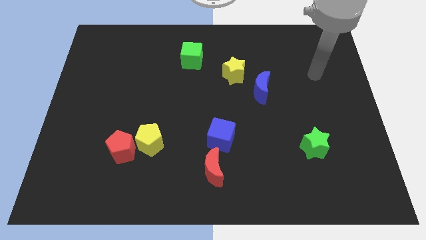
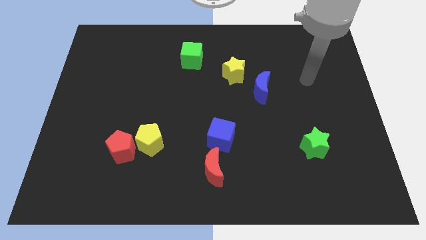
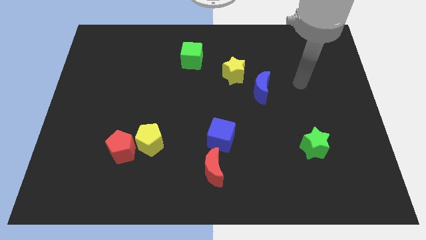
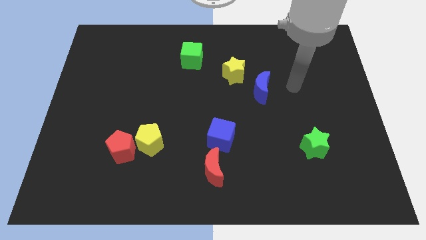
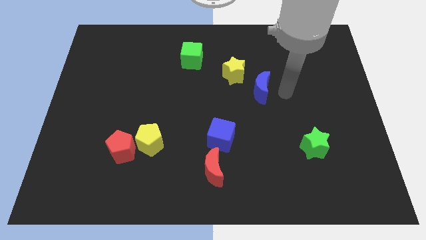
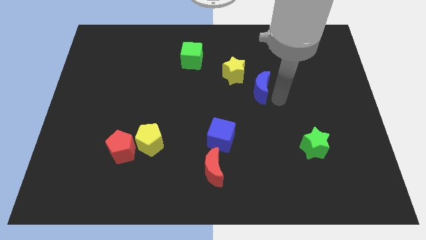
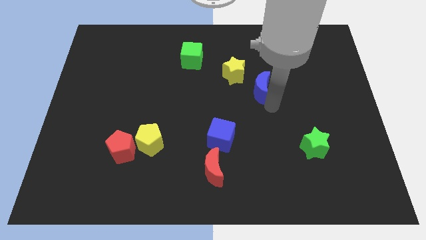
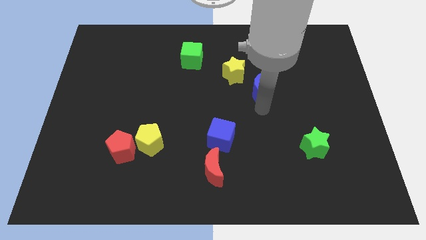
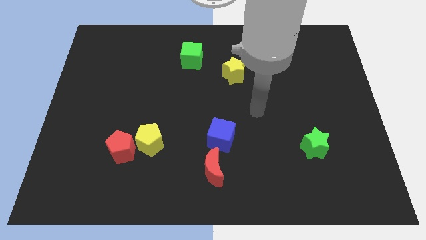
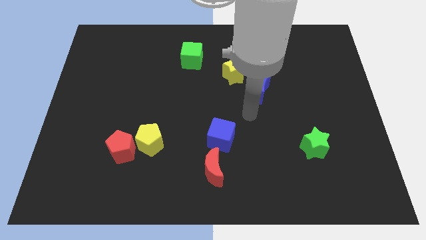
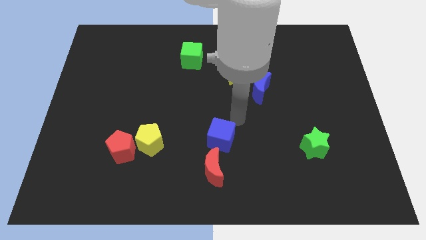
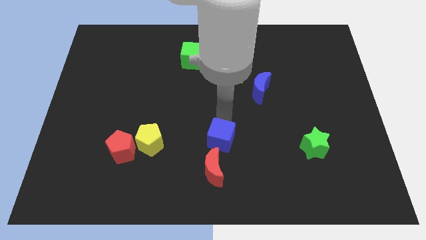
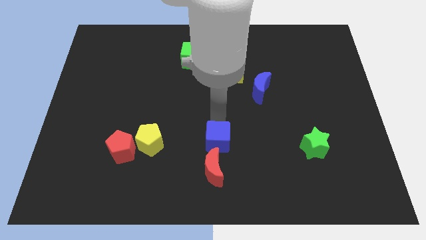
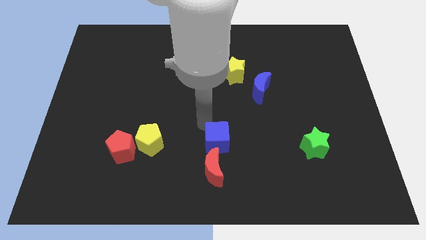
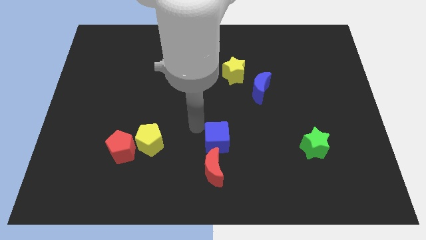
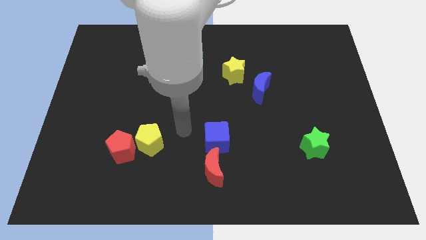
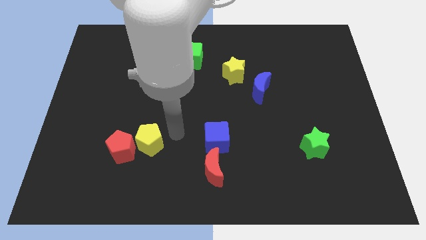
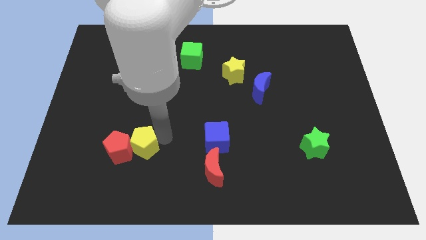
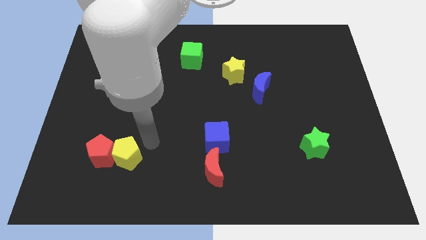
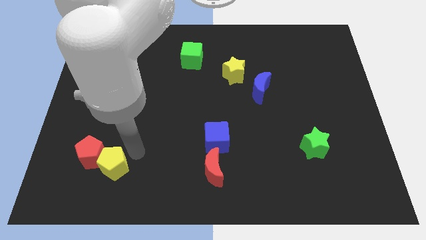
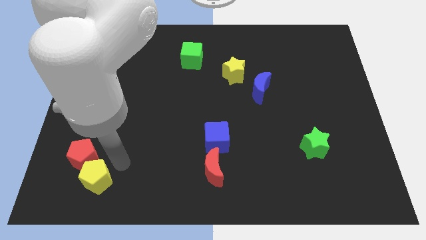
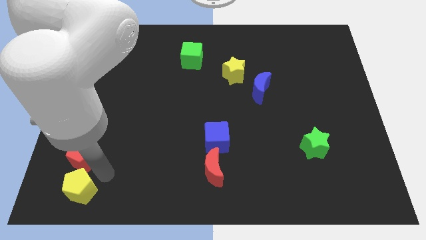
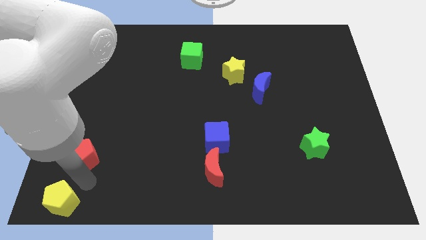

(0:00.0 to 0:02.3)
pull the red pentagon apart from the yellow pentagon

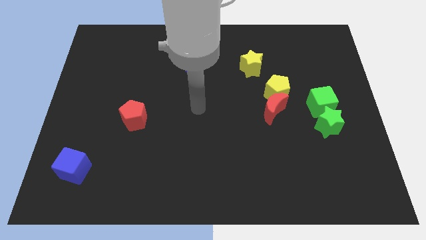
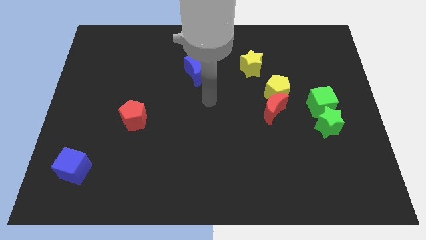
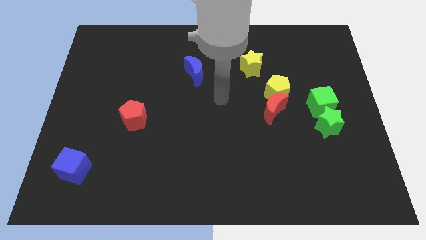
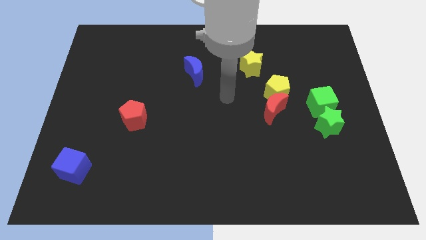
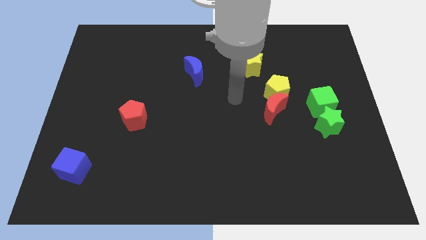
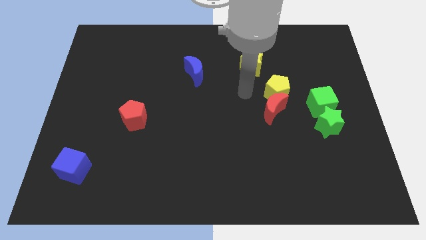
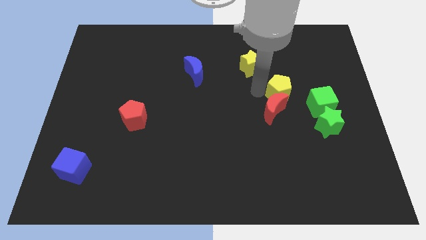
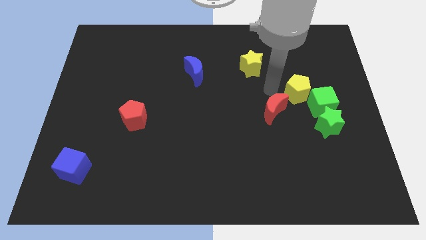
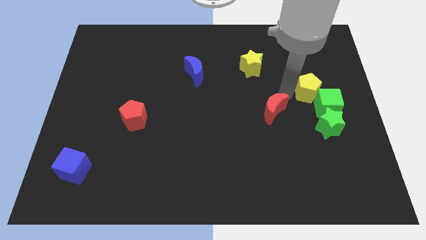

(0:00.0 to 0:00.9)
separate the red moon from the yellow pentagon

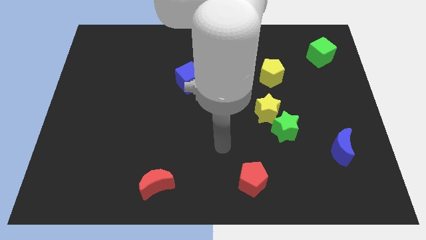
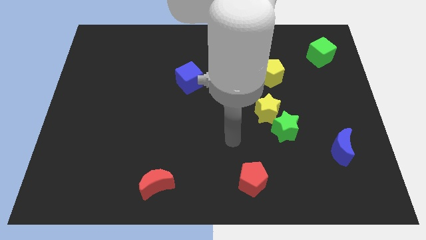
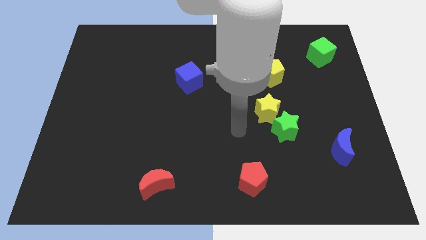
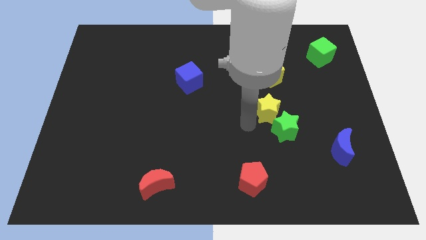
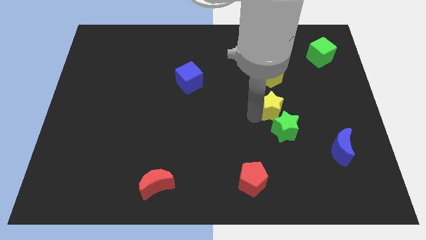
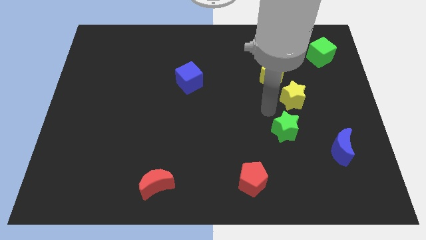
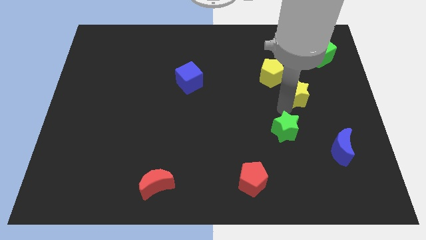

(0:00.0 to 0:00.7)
move the green star away from the yellow star

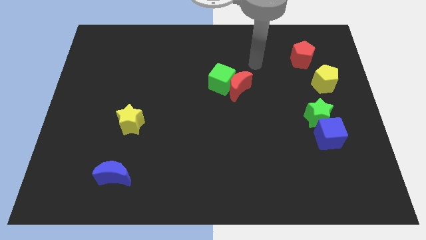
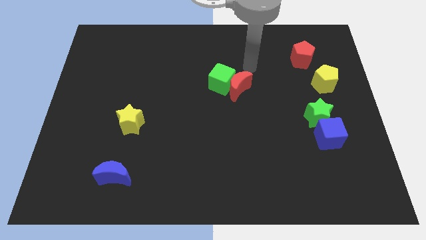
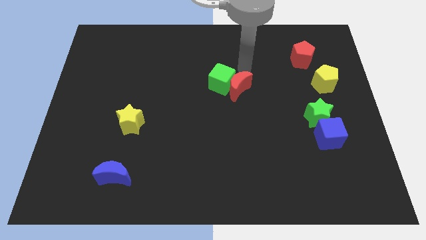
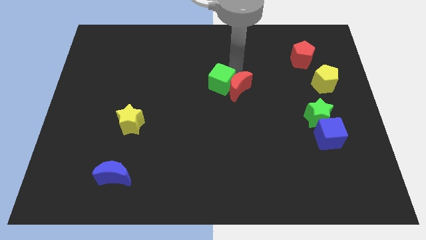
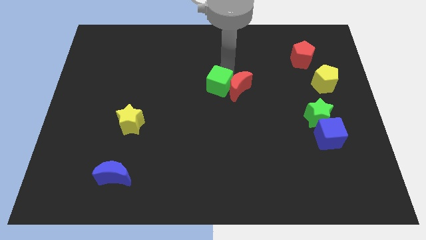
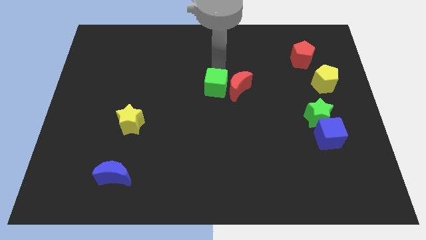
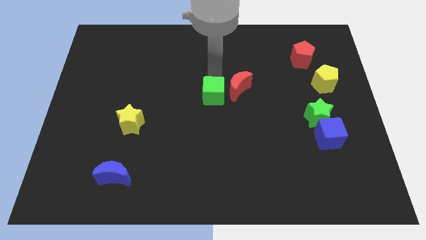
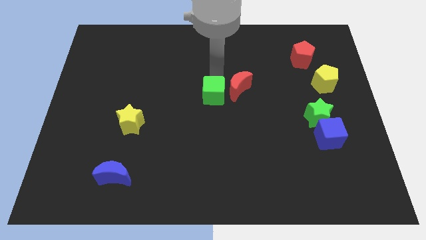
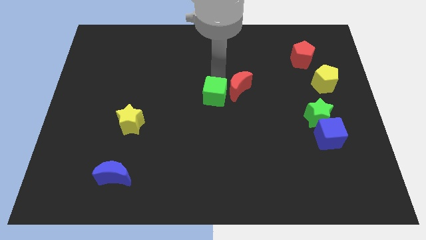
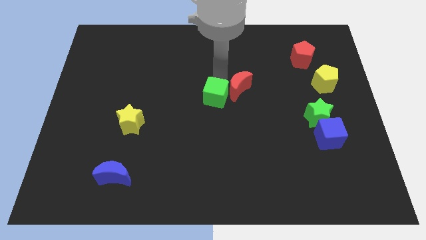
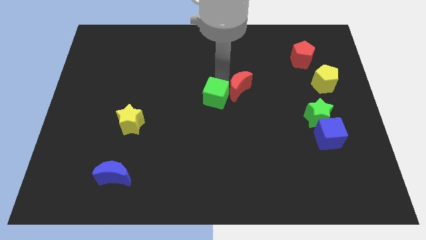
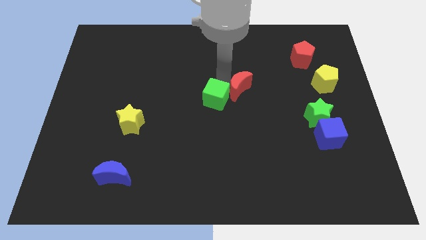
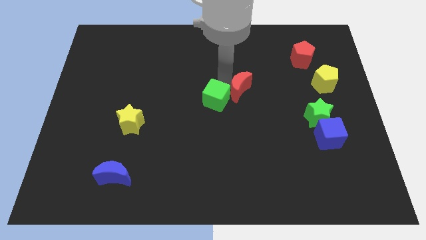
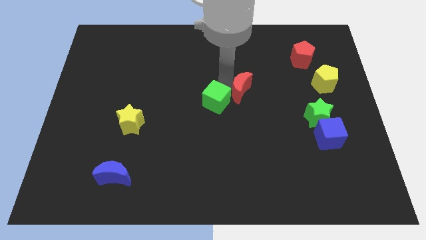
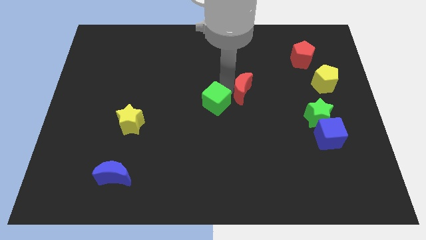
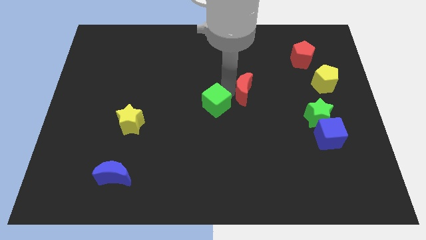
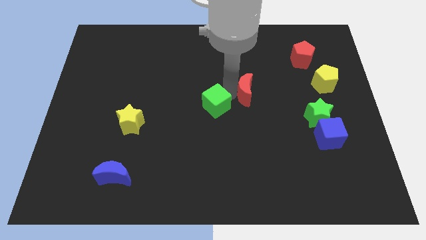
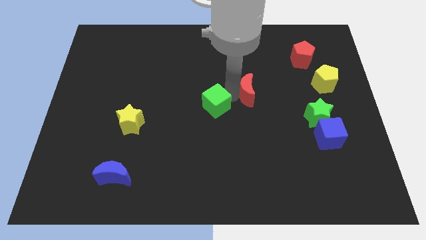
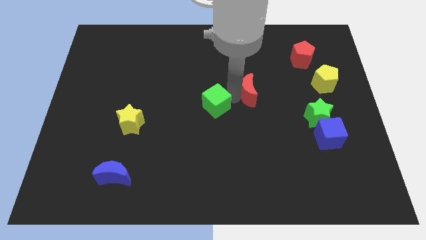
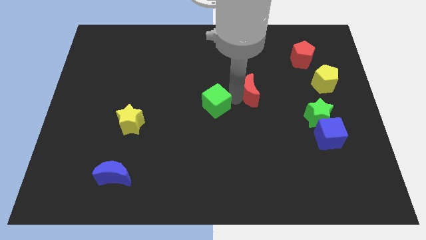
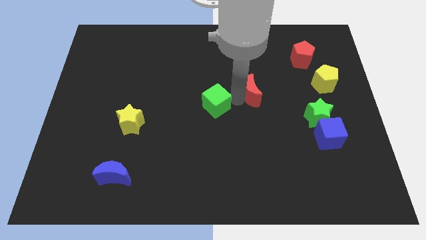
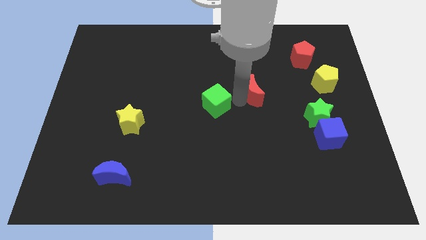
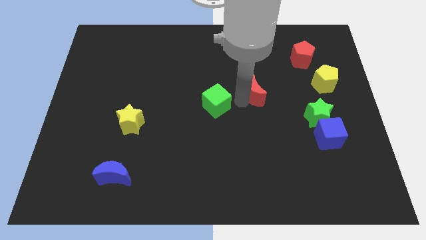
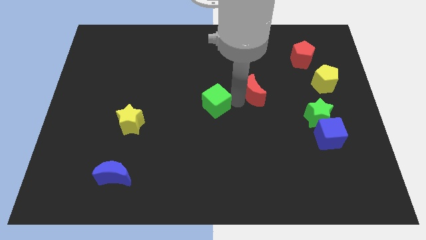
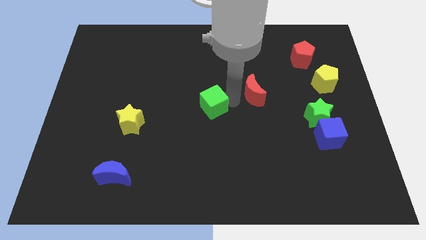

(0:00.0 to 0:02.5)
separate the red moon from the green cube

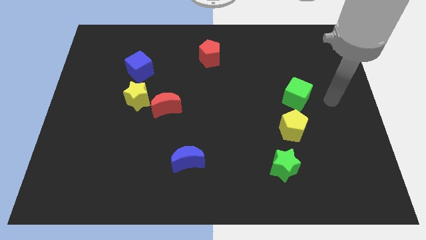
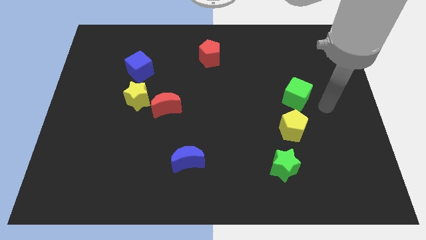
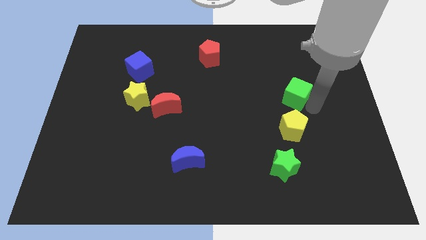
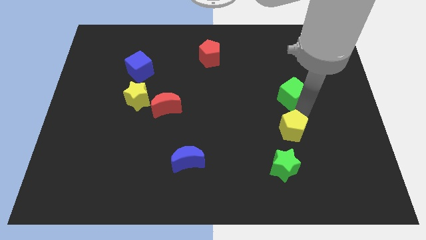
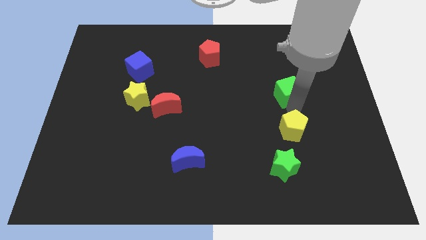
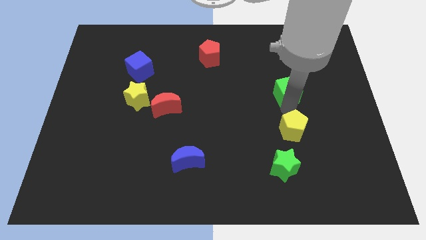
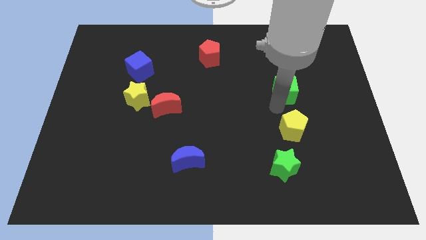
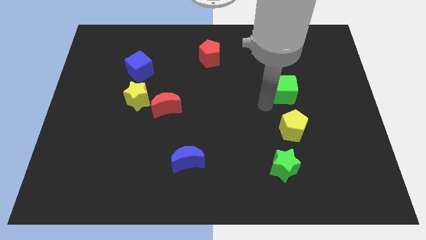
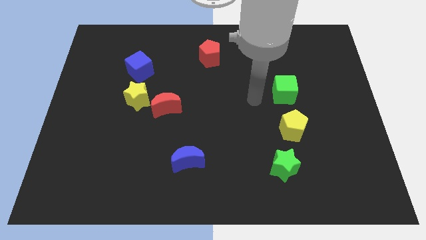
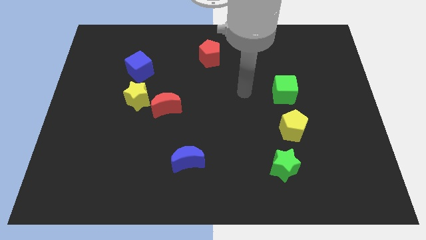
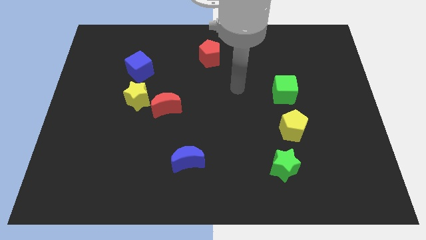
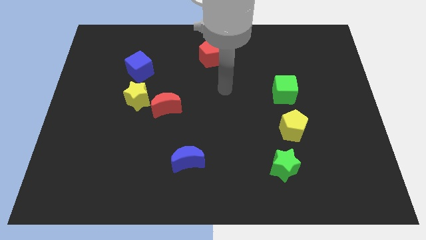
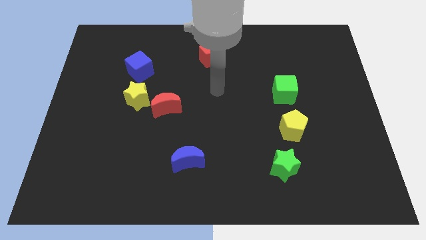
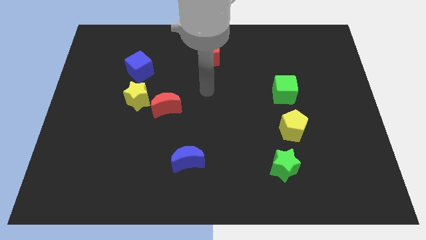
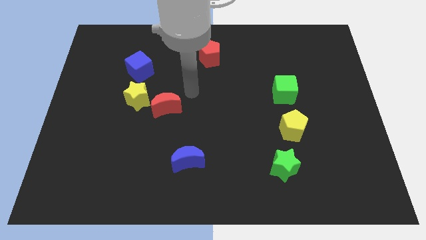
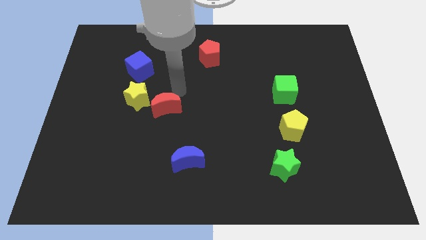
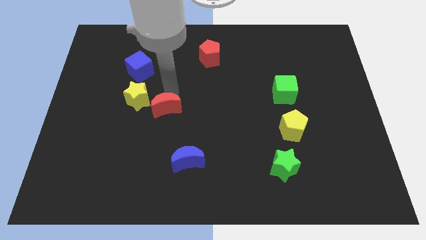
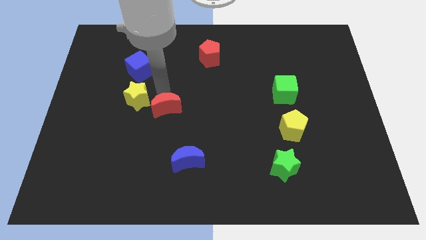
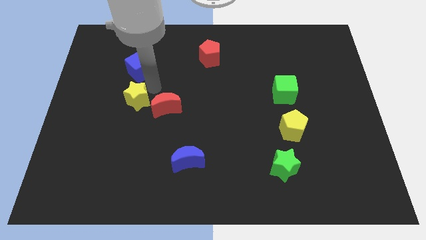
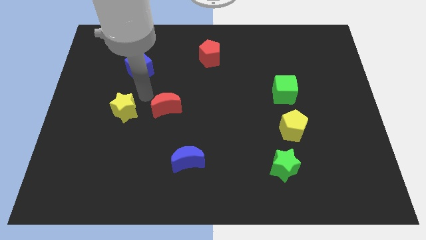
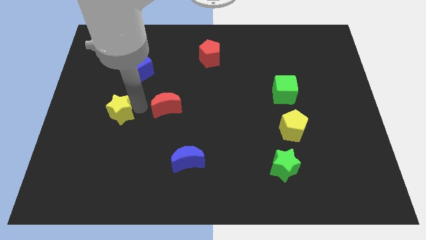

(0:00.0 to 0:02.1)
separate the red moon from the yellow star

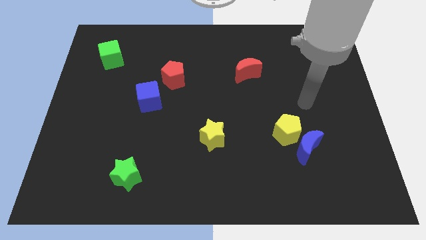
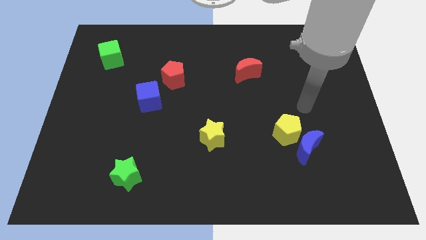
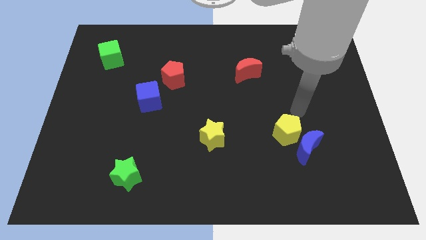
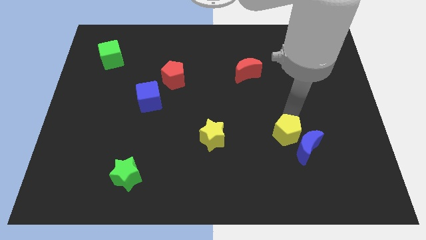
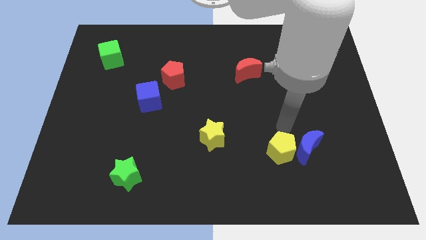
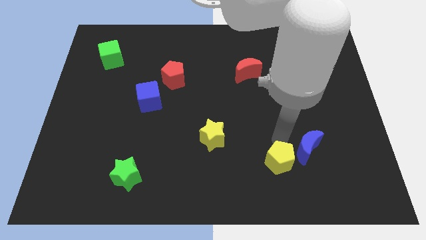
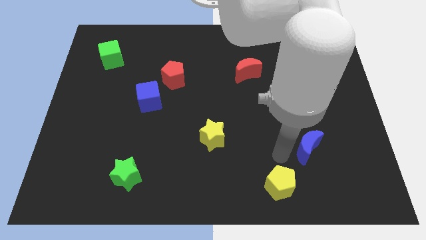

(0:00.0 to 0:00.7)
pull the blue moon apart from the yellow pentagon

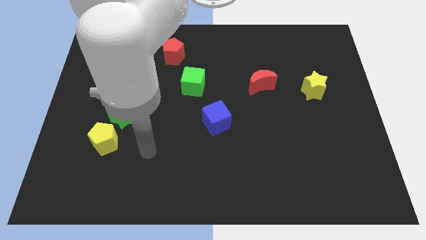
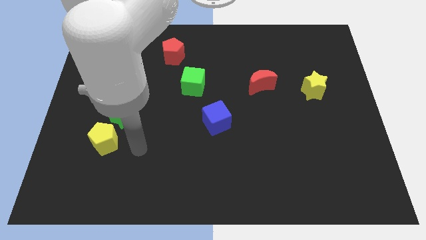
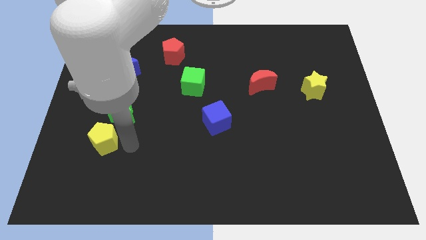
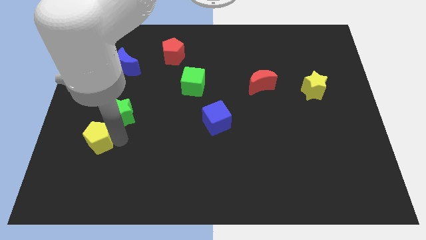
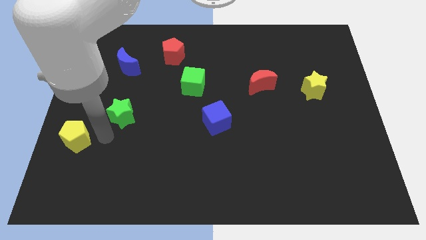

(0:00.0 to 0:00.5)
move the green star away from the yellow pentagon
